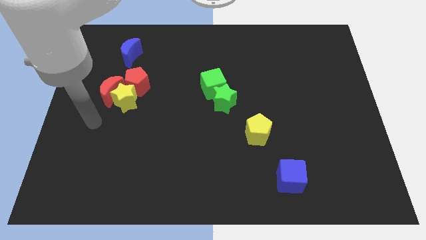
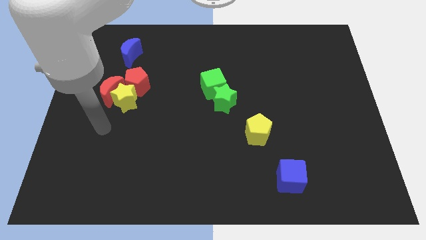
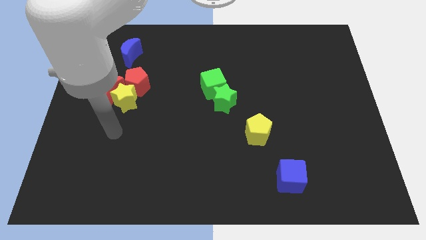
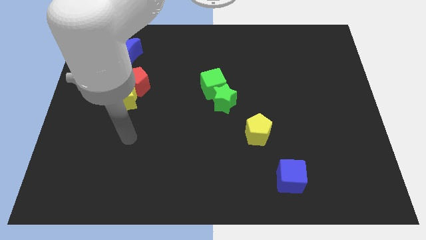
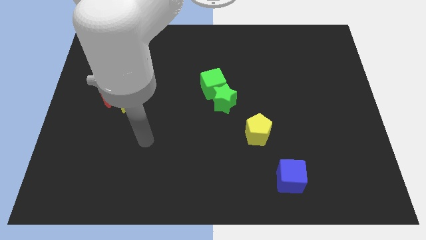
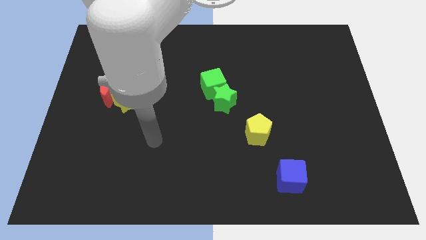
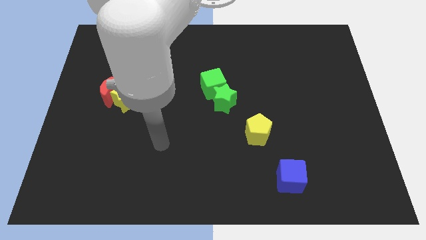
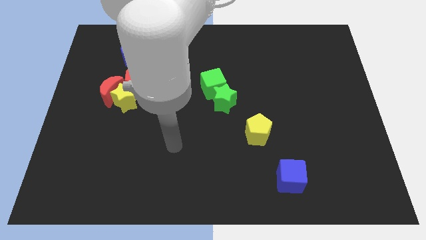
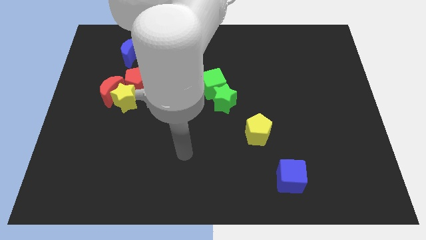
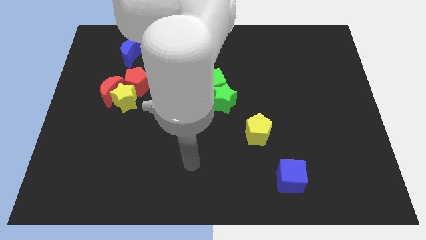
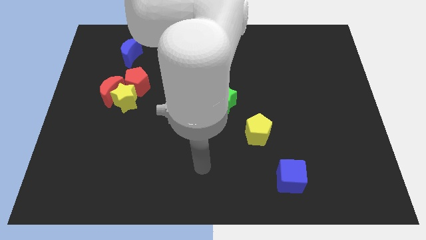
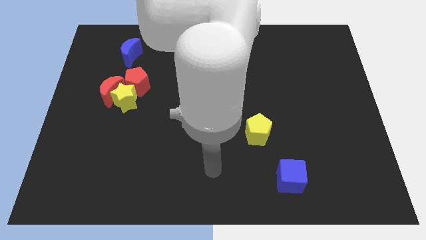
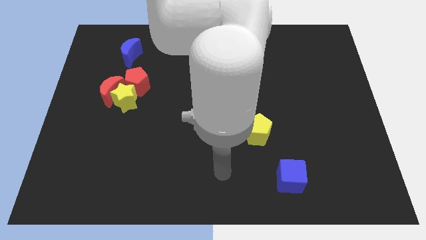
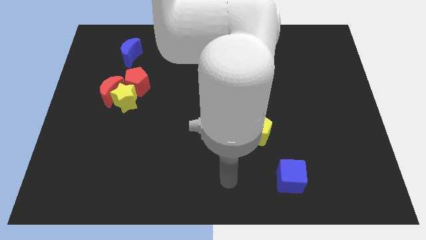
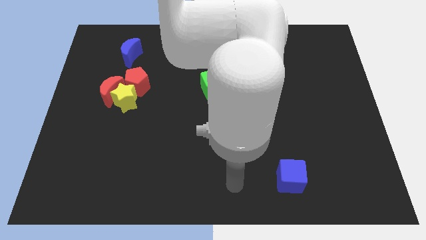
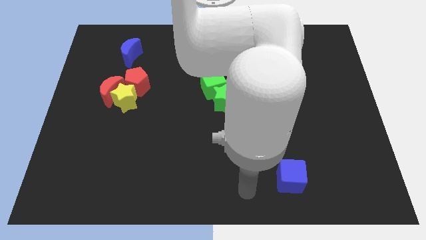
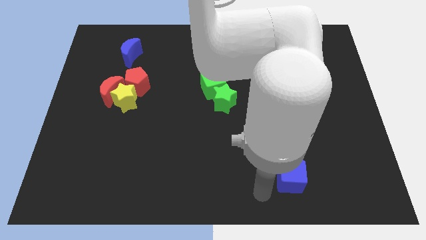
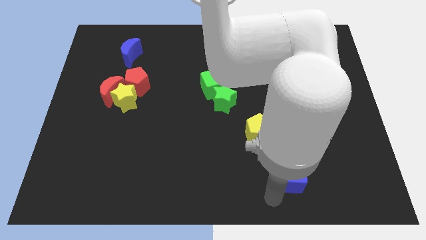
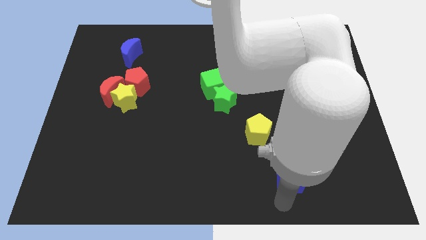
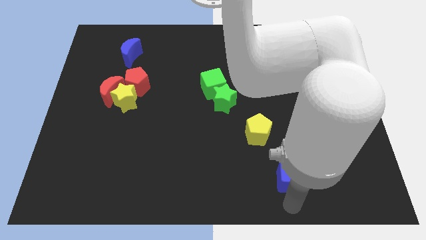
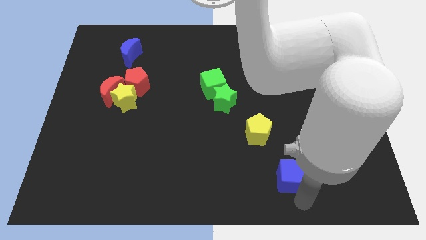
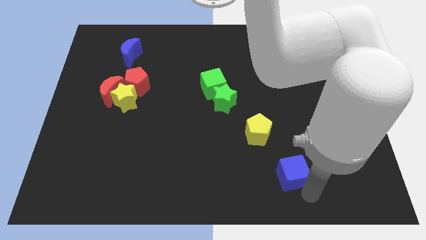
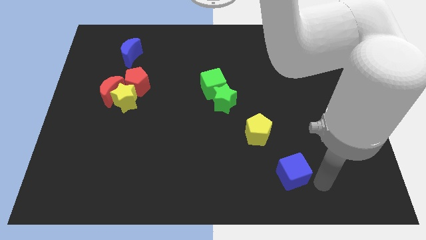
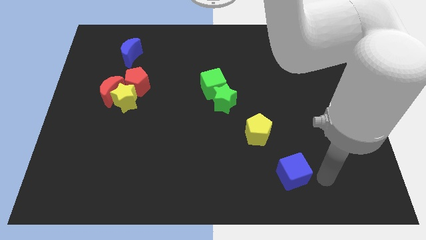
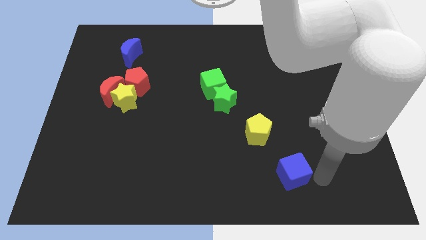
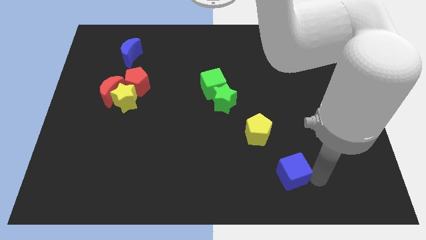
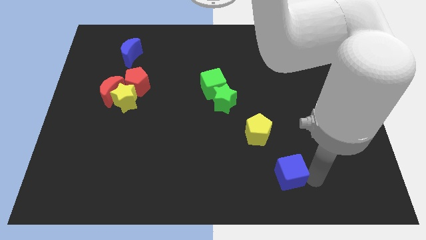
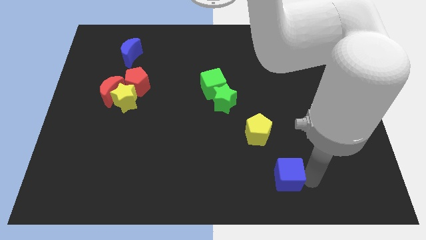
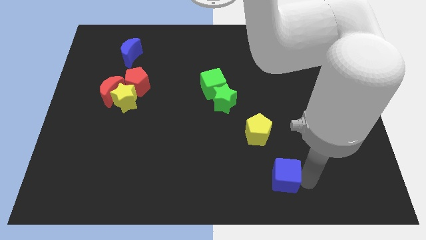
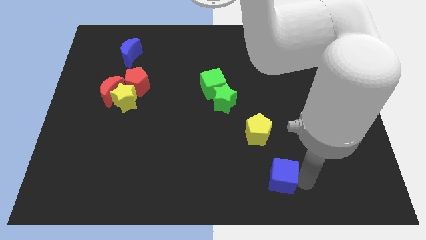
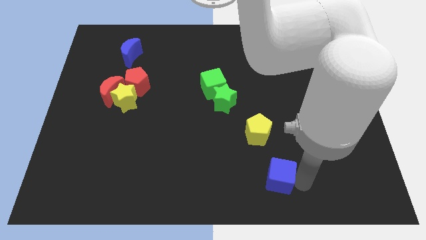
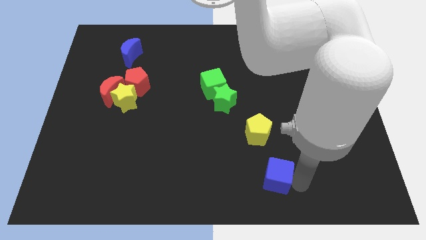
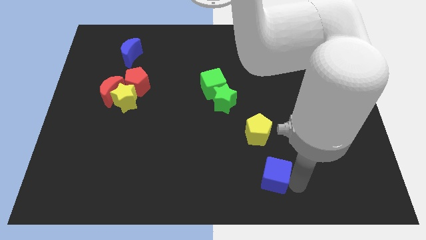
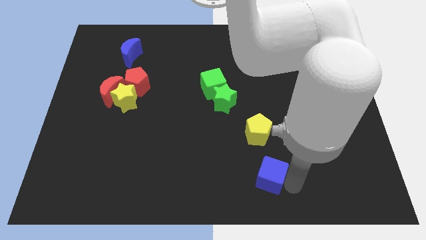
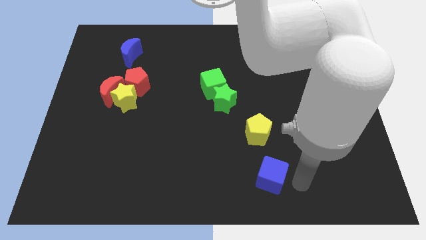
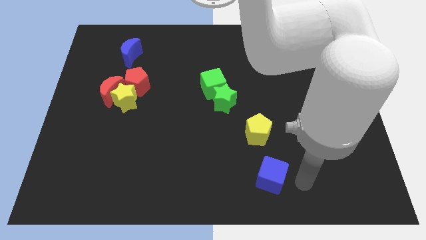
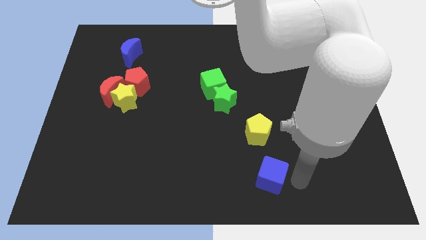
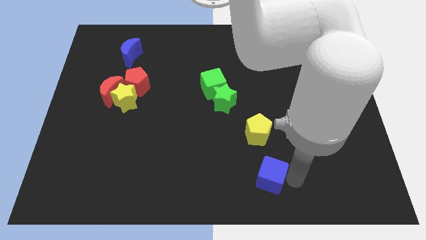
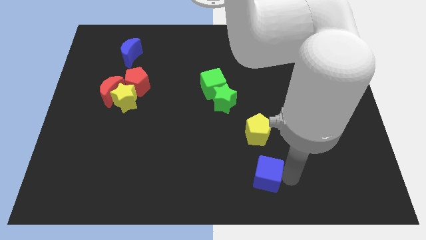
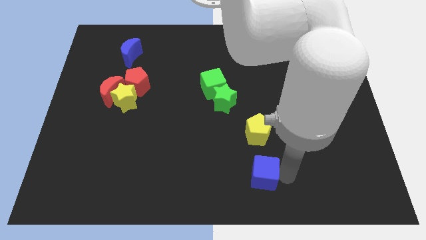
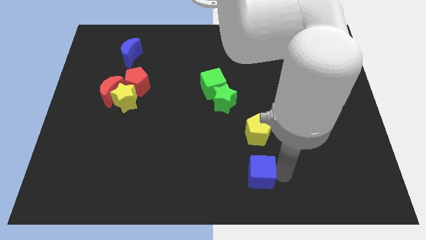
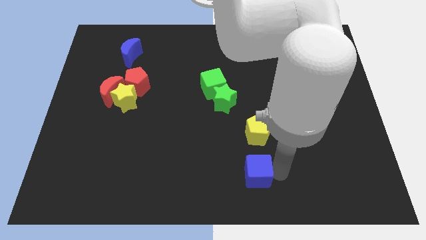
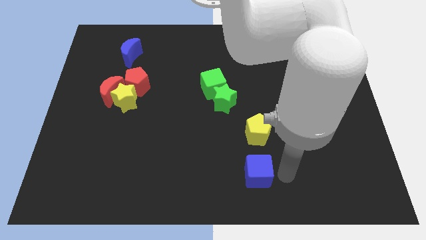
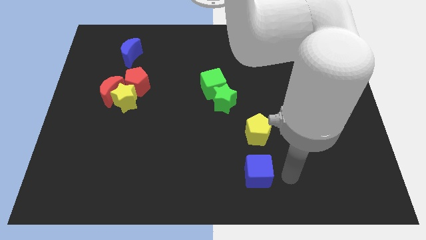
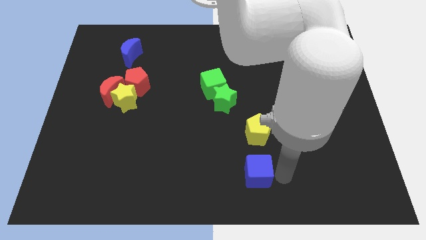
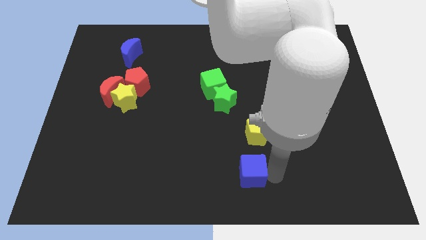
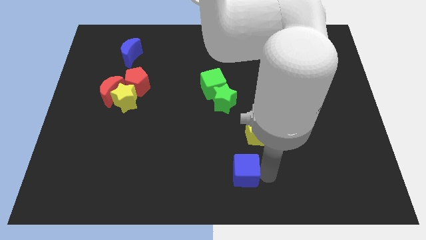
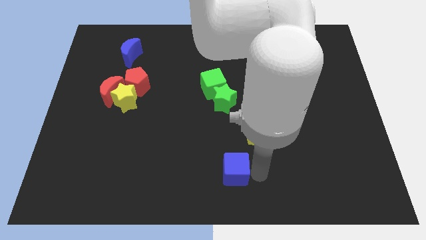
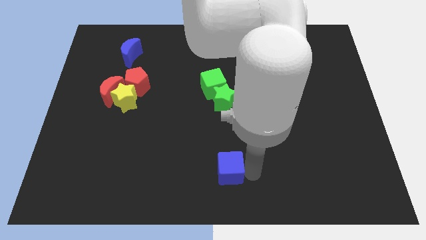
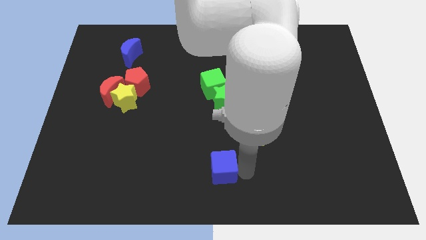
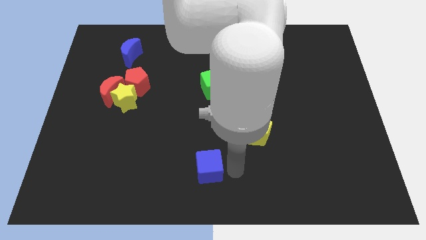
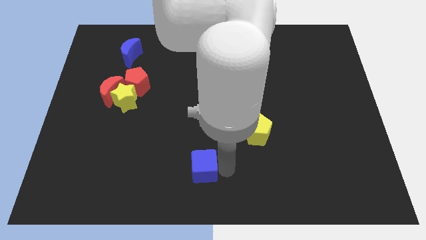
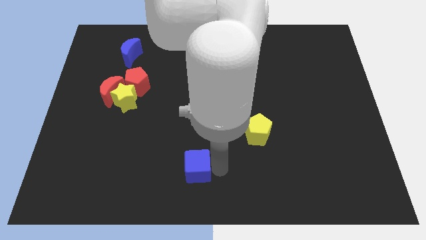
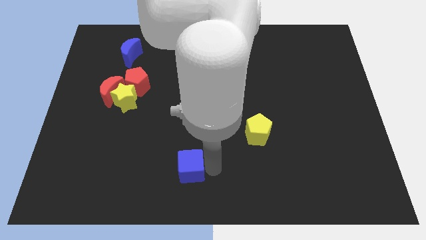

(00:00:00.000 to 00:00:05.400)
move the blue cube to the left

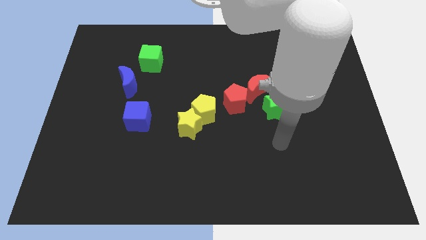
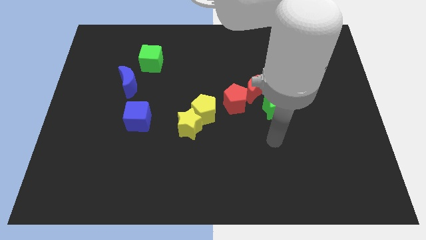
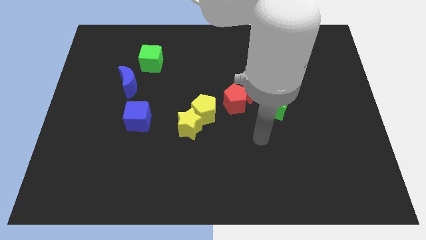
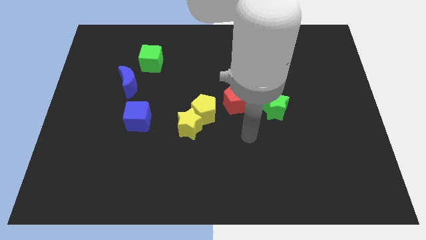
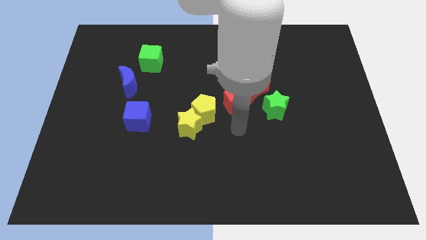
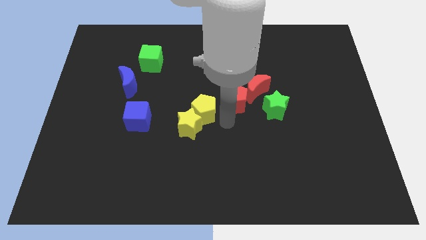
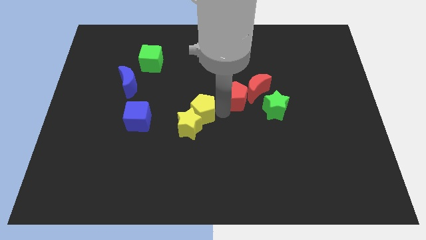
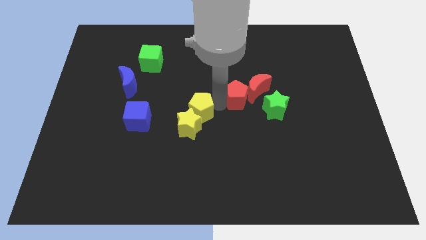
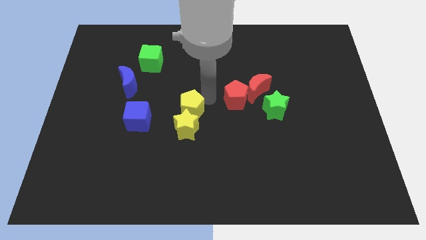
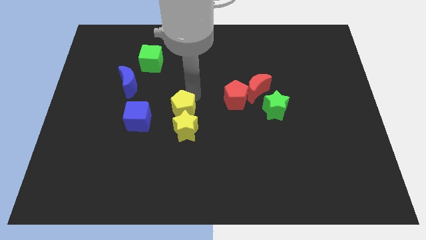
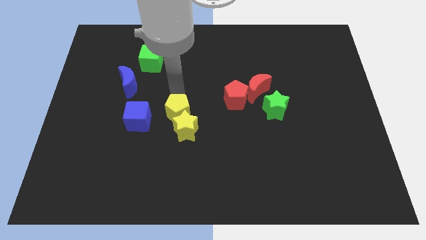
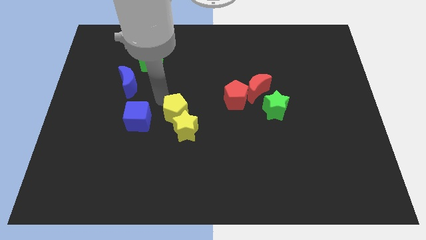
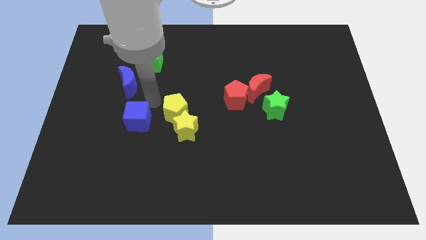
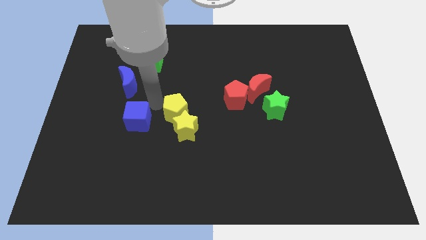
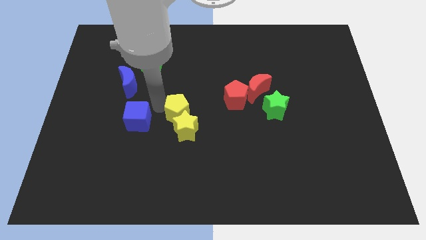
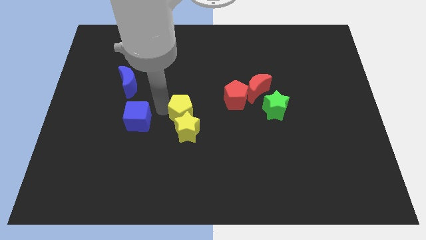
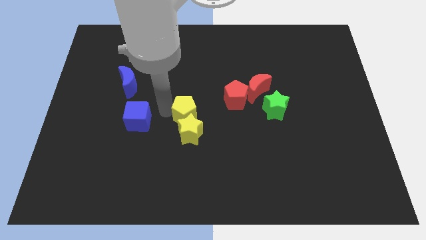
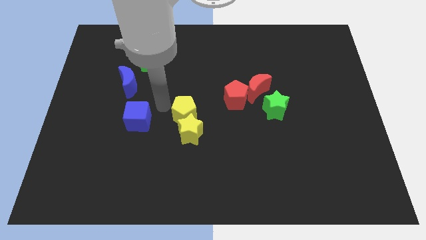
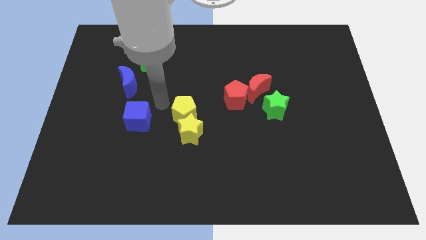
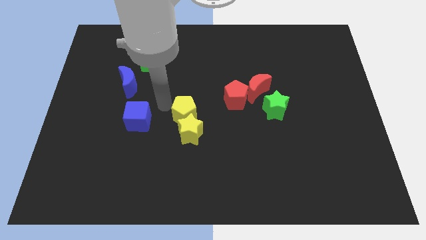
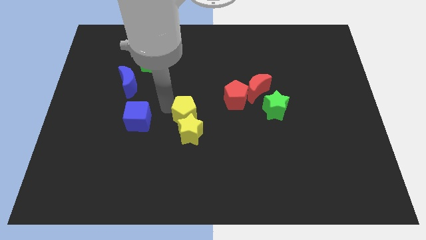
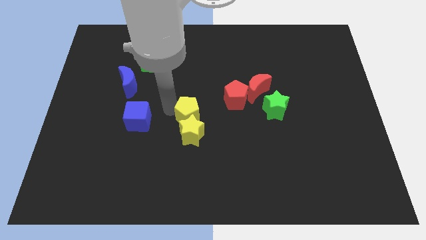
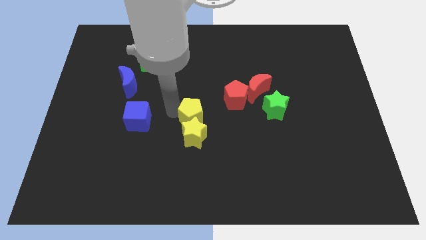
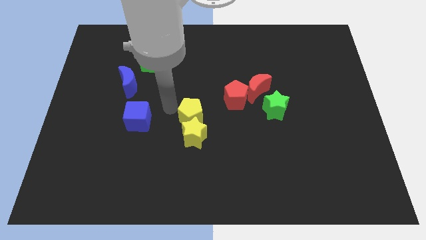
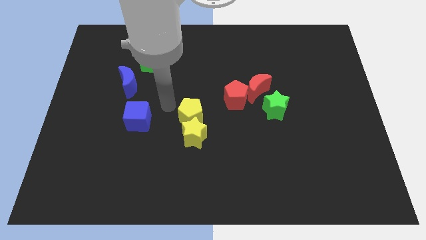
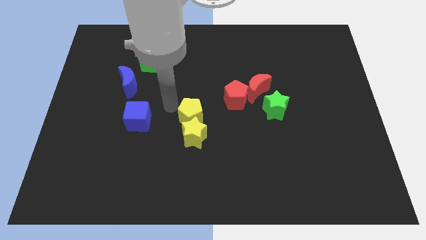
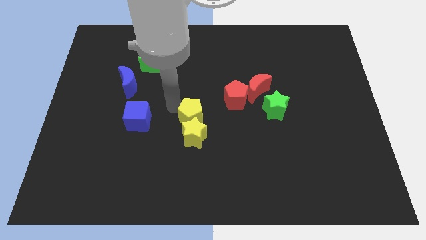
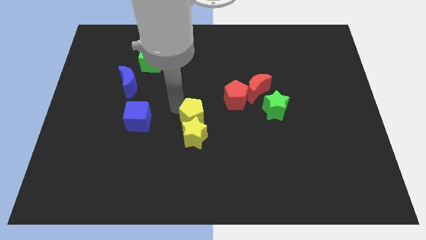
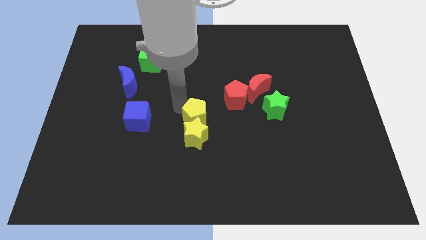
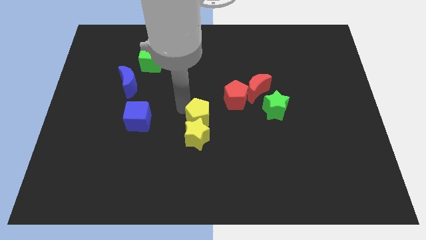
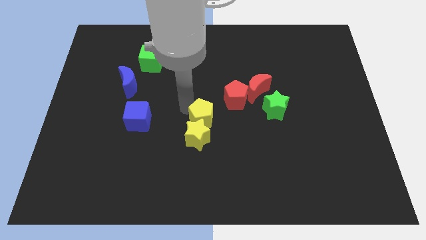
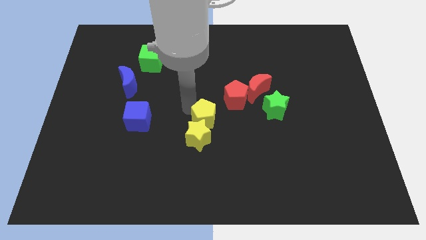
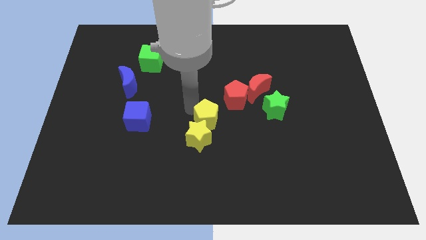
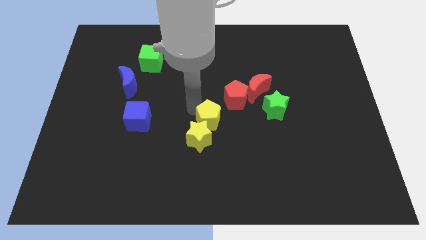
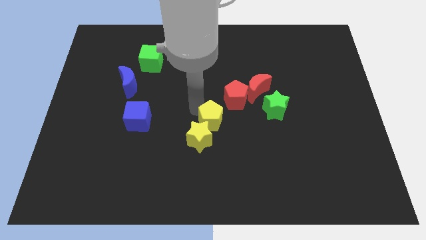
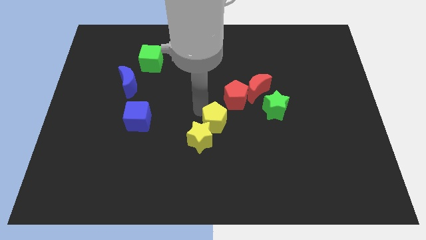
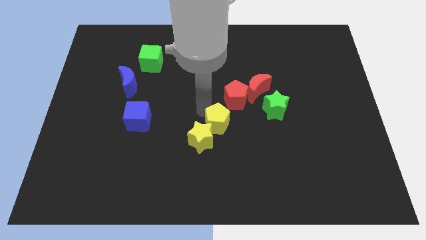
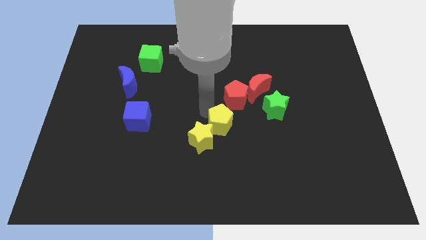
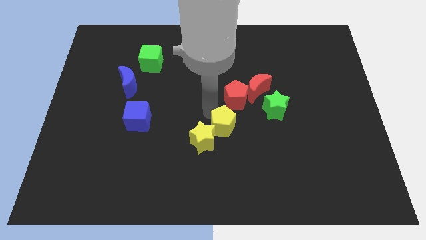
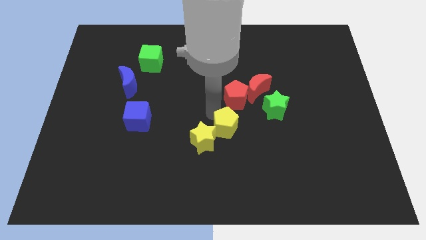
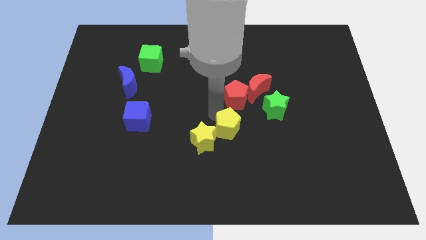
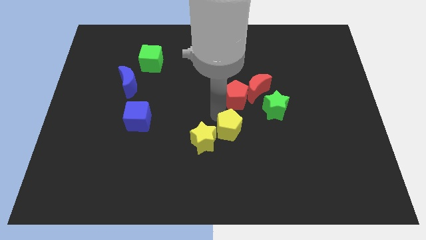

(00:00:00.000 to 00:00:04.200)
push the yellow pentagon a little bit downwards and then right
